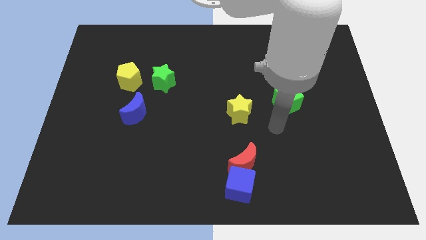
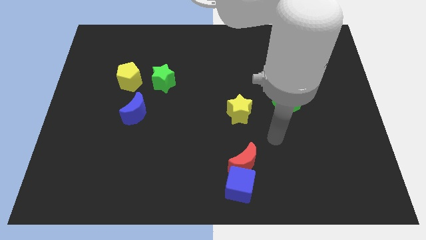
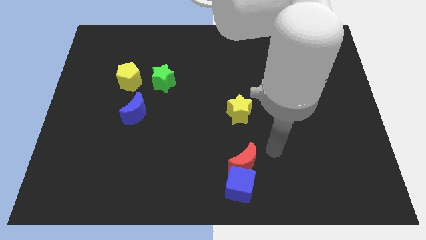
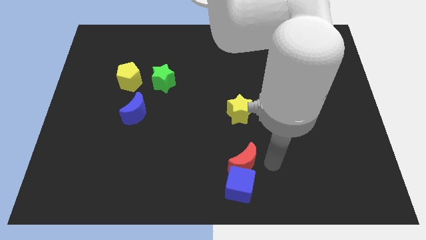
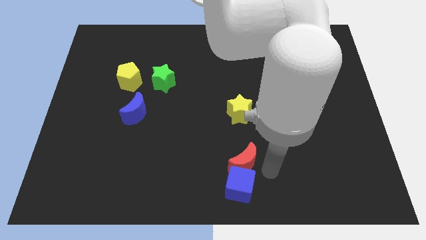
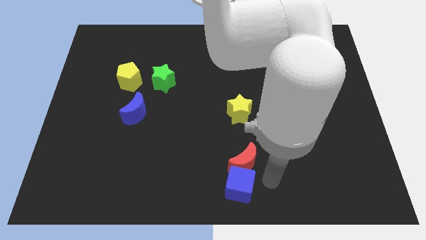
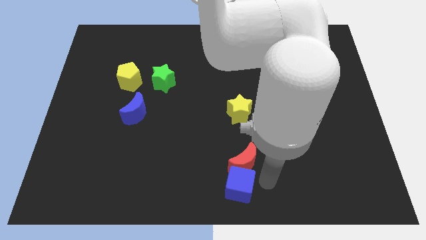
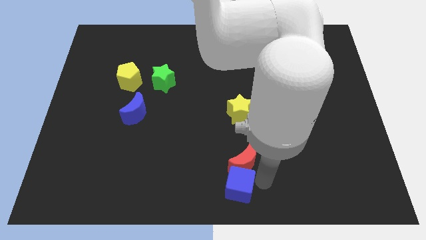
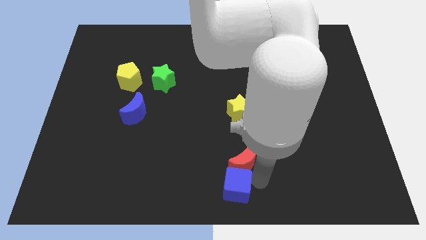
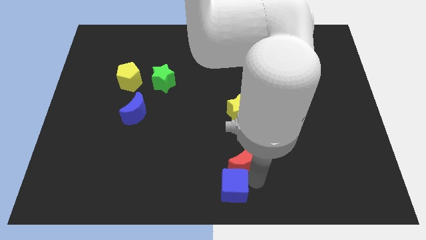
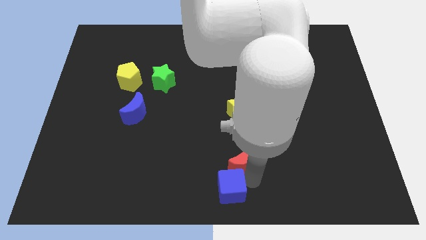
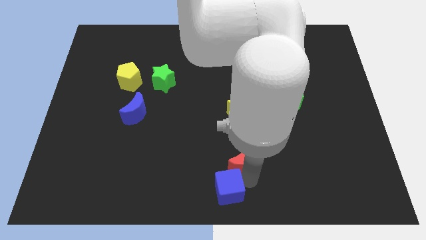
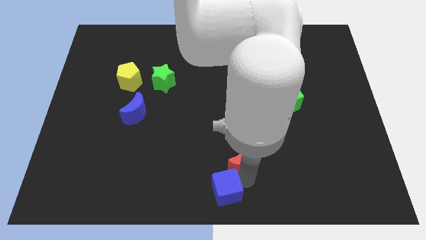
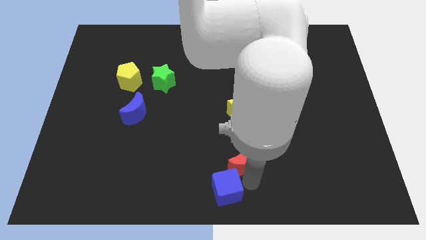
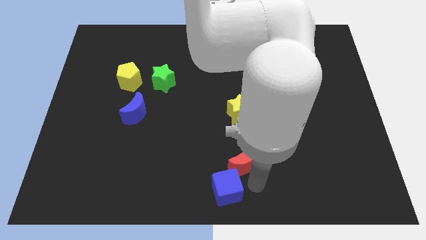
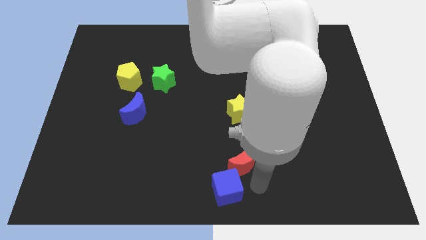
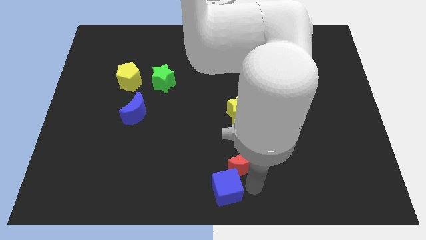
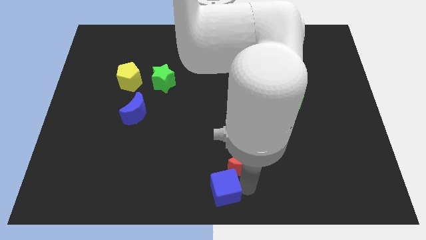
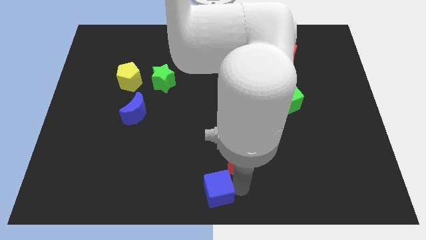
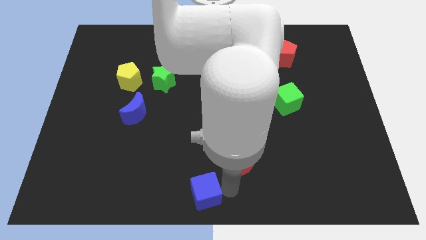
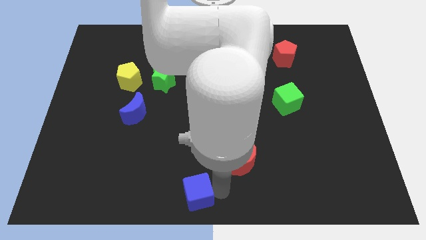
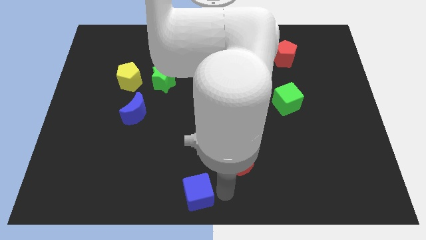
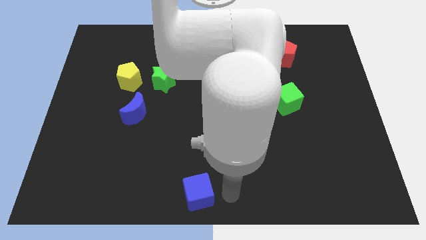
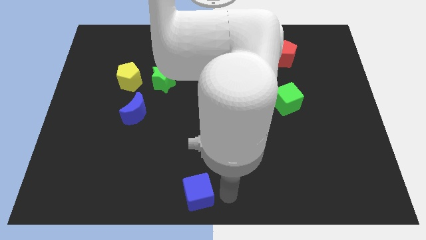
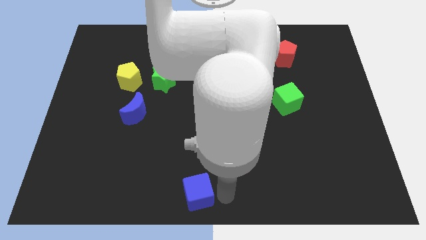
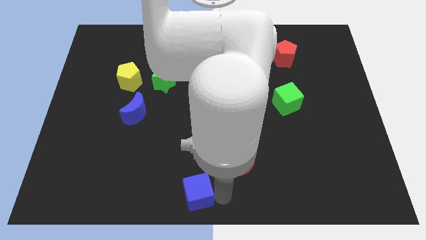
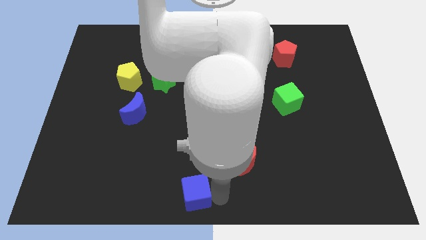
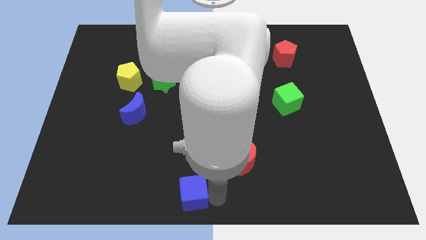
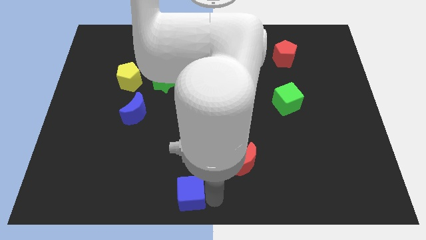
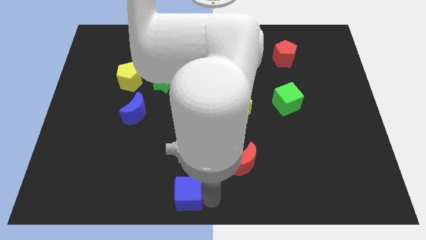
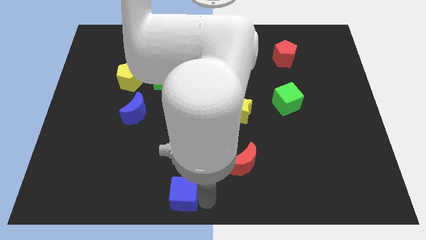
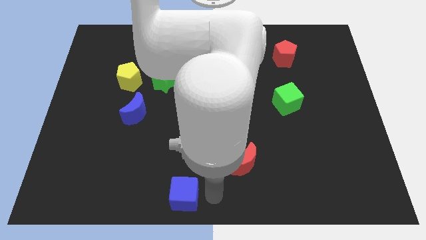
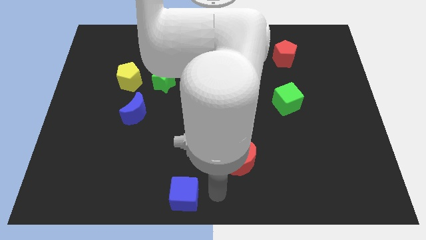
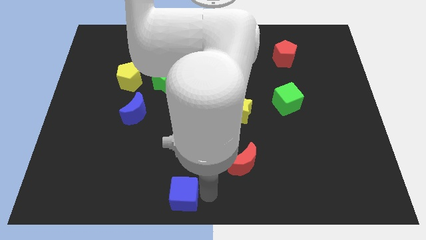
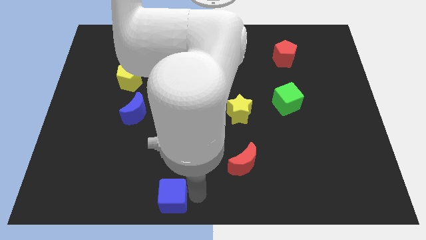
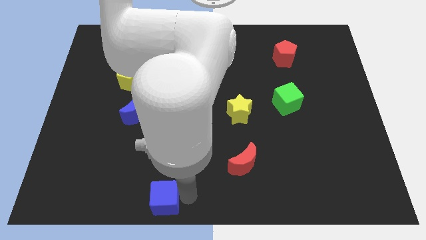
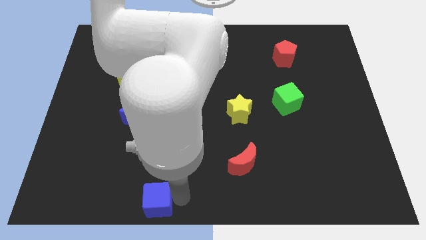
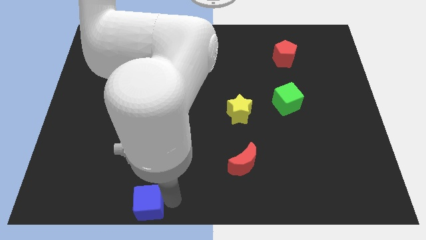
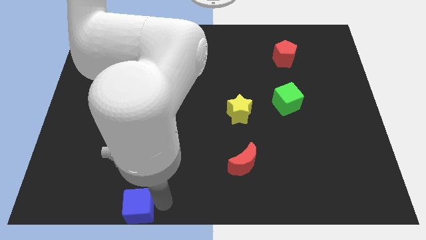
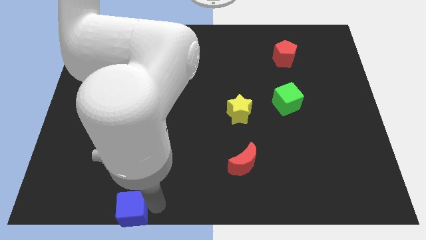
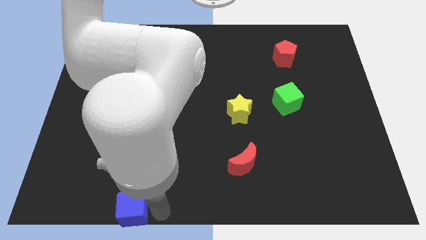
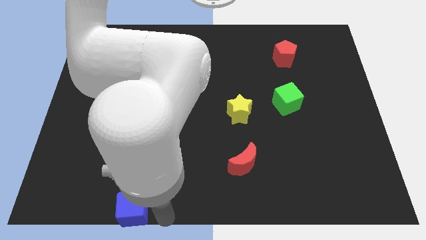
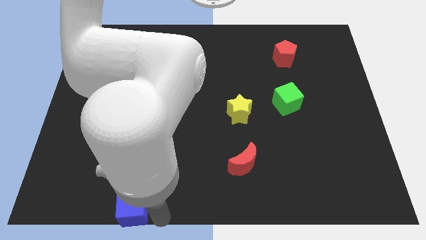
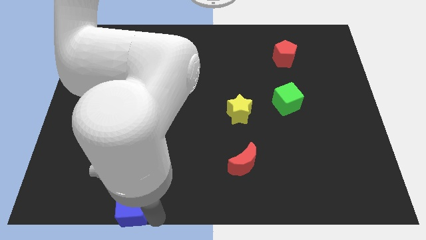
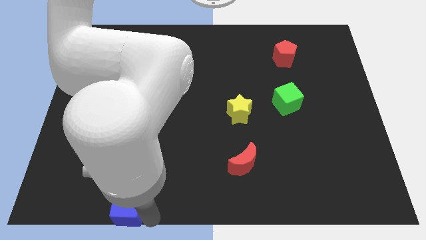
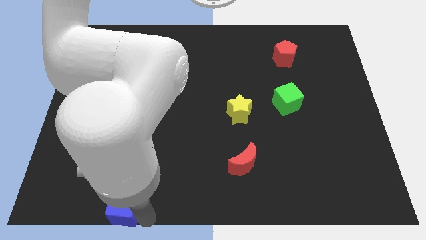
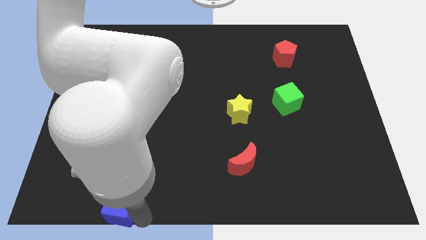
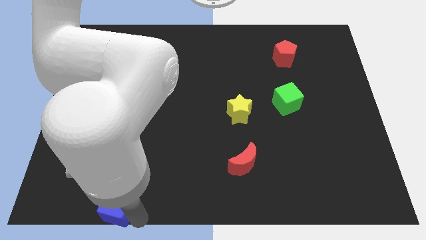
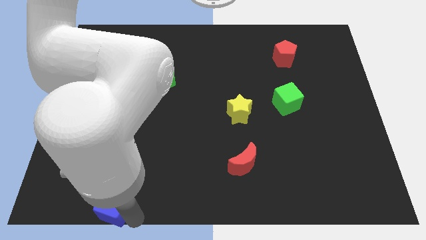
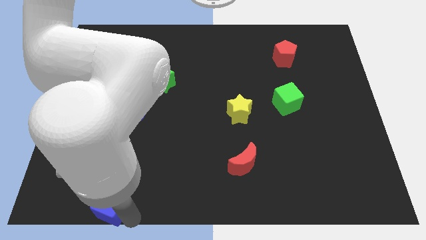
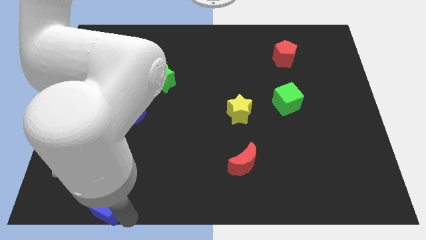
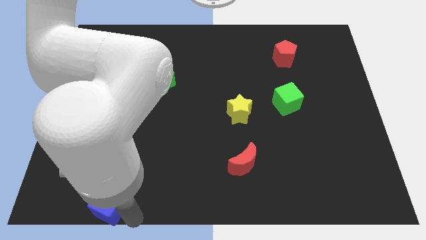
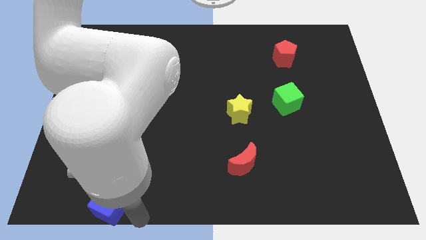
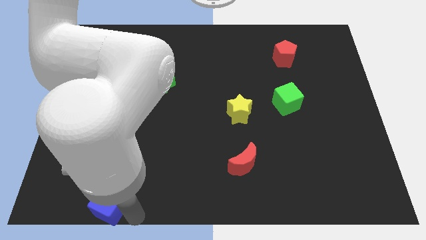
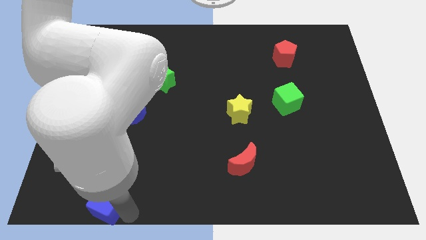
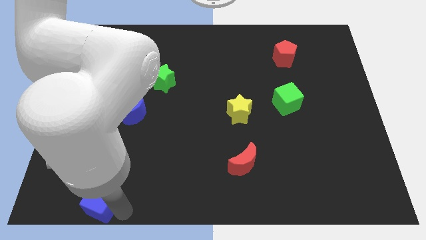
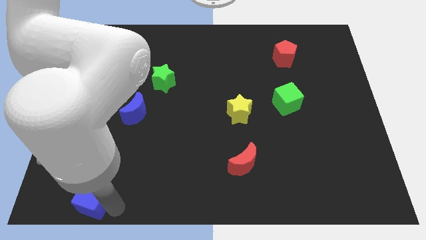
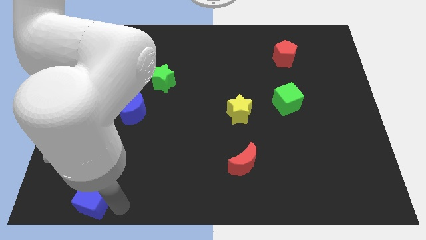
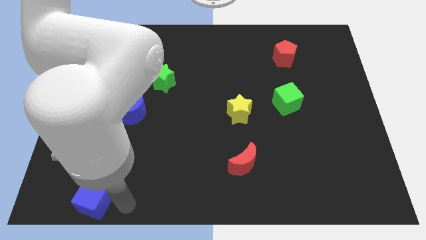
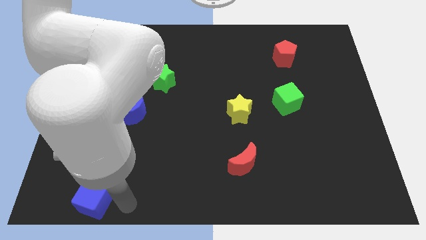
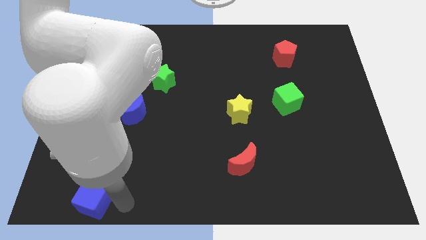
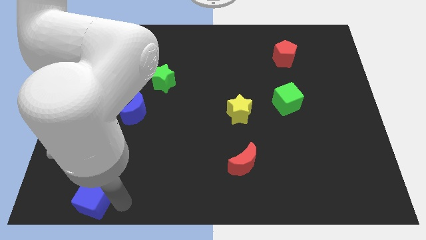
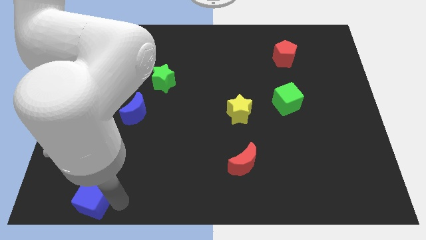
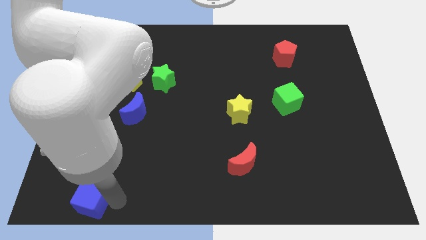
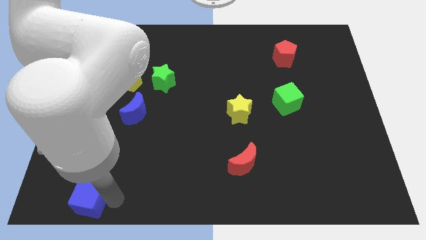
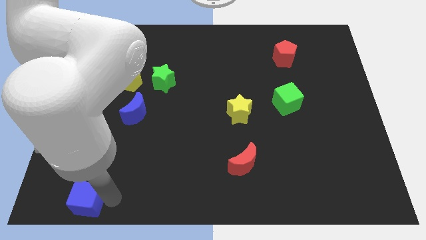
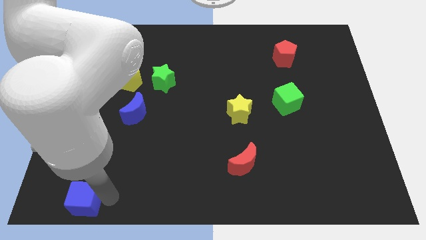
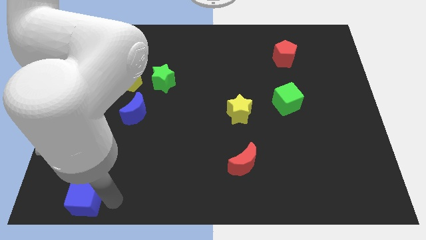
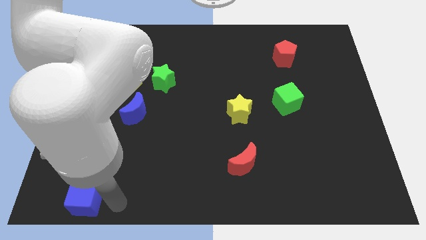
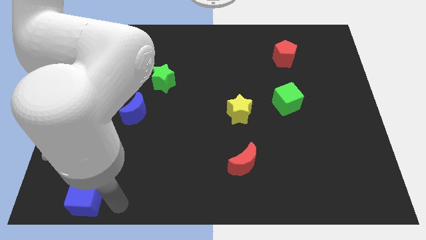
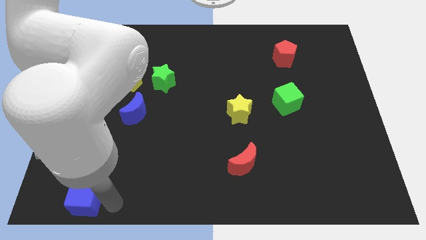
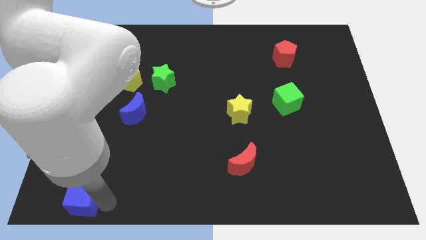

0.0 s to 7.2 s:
move the blue cube to the bottom left of the board
